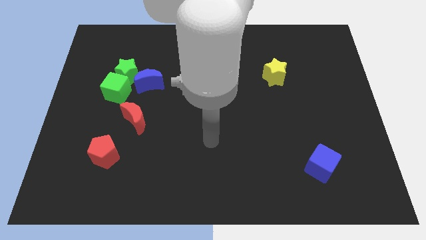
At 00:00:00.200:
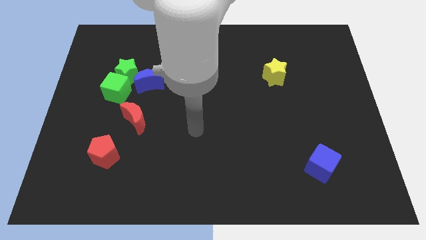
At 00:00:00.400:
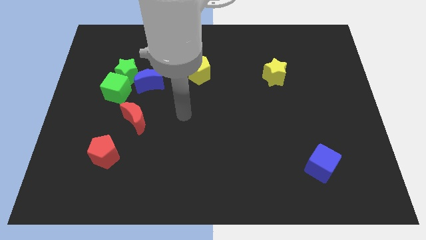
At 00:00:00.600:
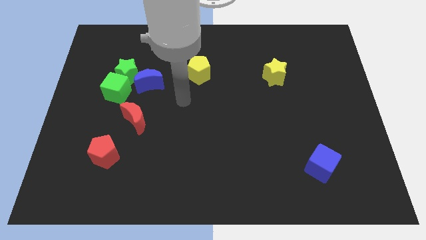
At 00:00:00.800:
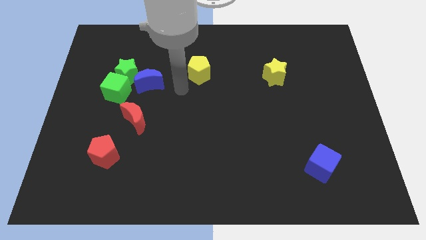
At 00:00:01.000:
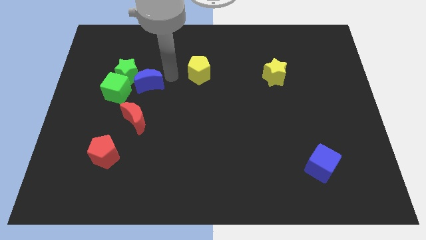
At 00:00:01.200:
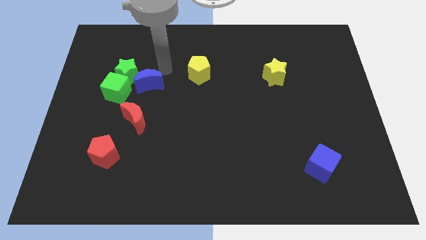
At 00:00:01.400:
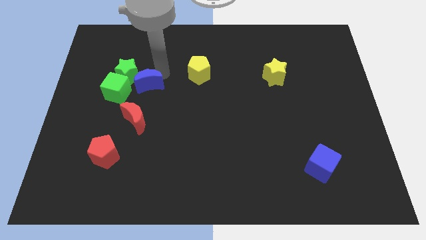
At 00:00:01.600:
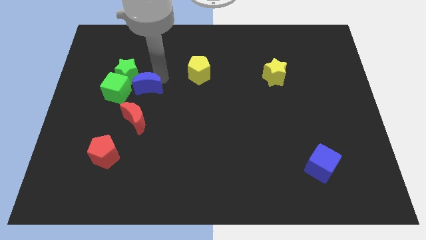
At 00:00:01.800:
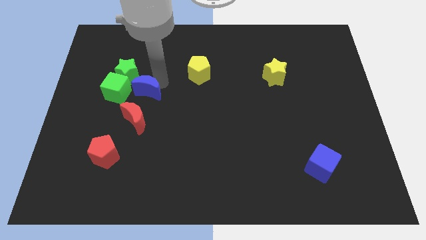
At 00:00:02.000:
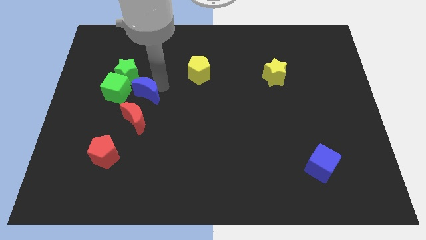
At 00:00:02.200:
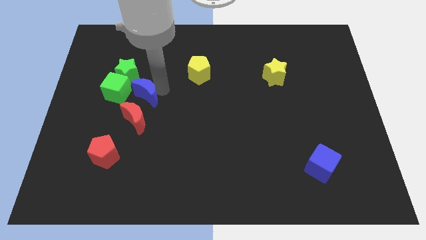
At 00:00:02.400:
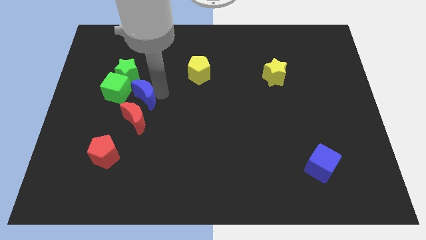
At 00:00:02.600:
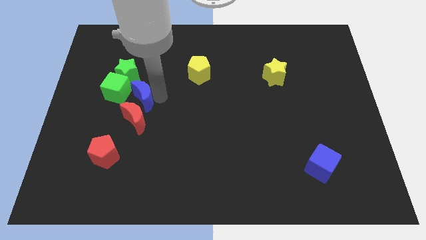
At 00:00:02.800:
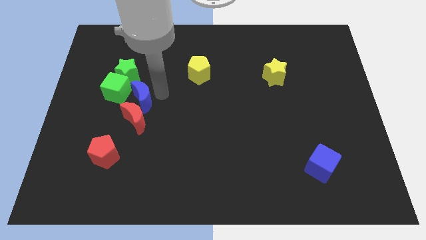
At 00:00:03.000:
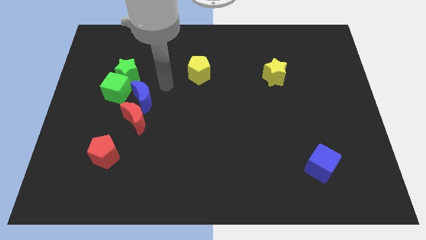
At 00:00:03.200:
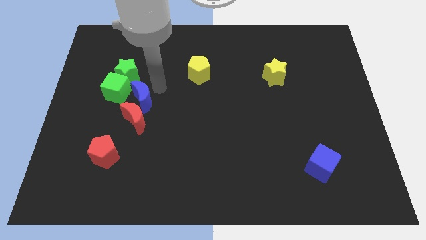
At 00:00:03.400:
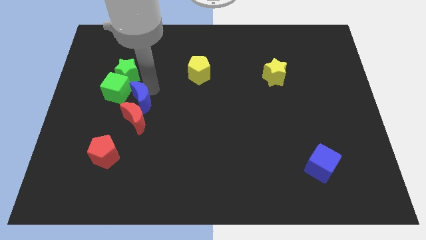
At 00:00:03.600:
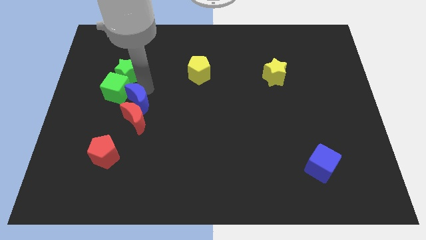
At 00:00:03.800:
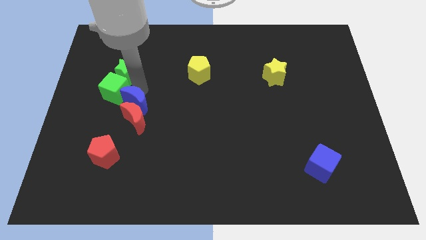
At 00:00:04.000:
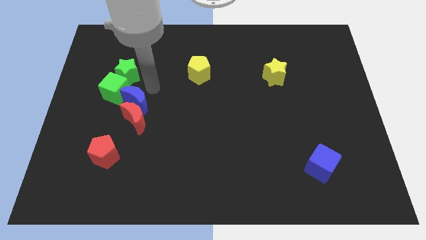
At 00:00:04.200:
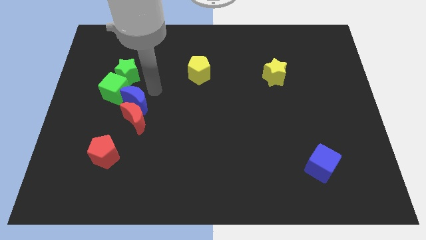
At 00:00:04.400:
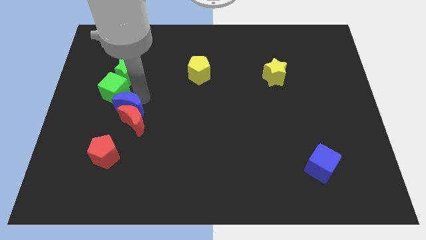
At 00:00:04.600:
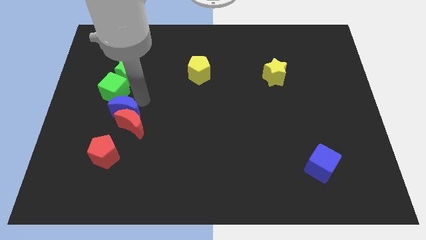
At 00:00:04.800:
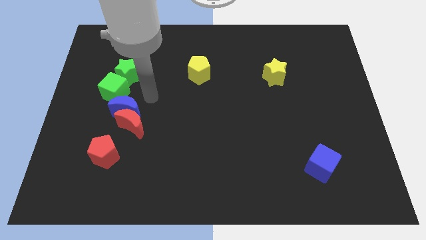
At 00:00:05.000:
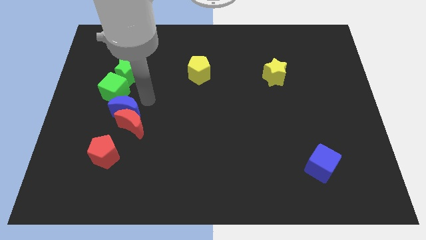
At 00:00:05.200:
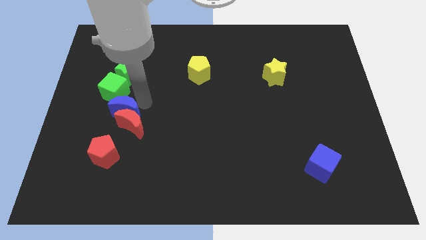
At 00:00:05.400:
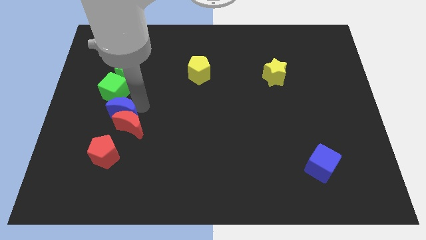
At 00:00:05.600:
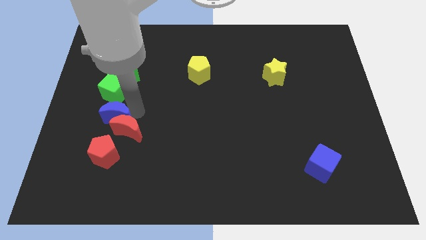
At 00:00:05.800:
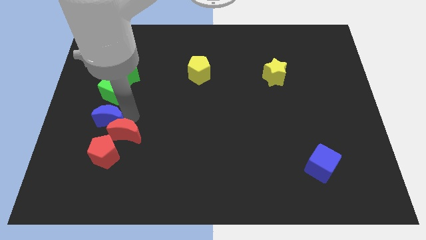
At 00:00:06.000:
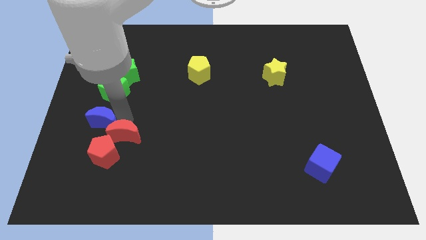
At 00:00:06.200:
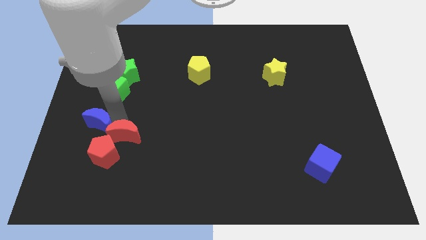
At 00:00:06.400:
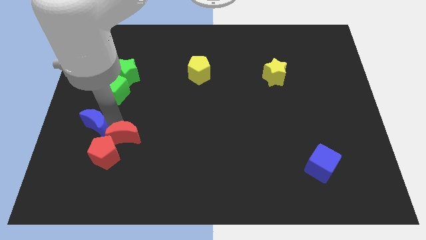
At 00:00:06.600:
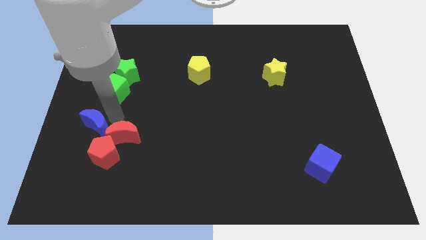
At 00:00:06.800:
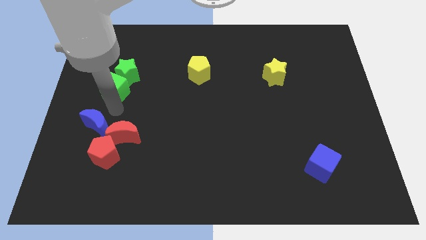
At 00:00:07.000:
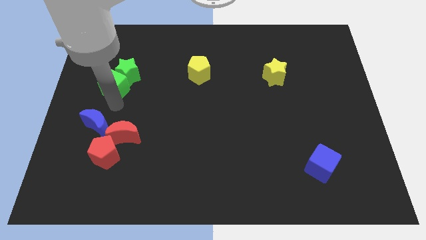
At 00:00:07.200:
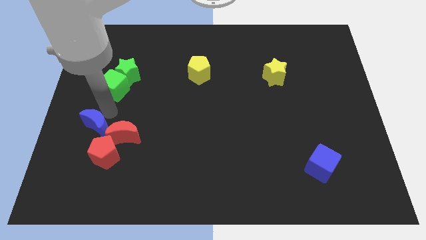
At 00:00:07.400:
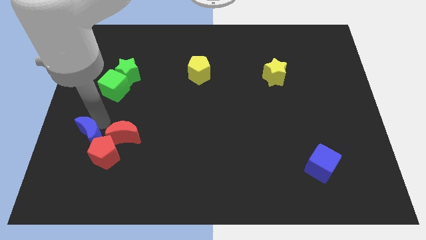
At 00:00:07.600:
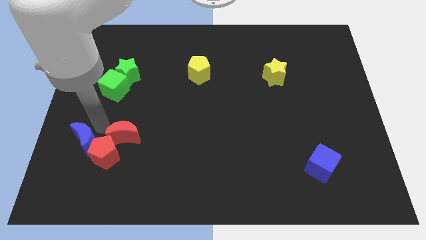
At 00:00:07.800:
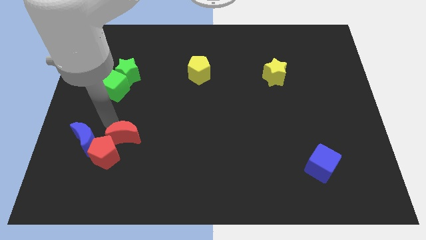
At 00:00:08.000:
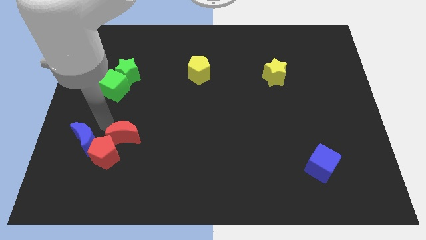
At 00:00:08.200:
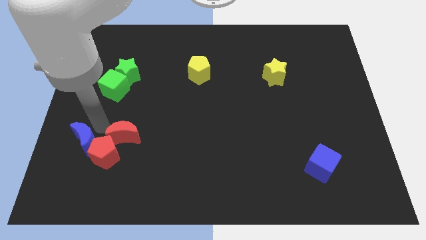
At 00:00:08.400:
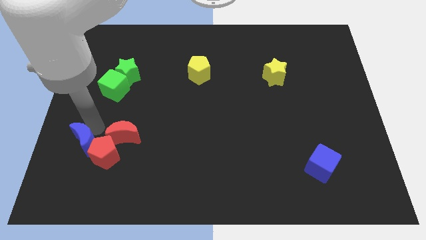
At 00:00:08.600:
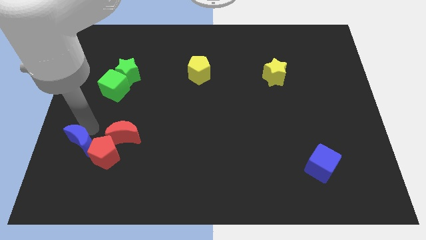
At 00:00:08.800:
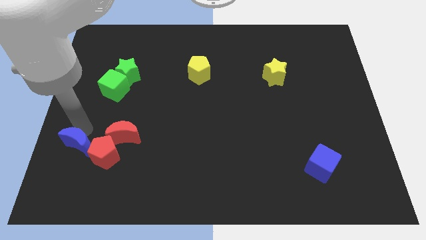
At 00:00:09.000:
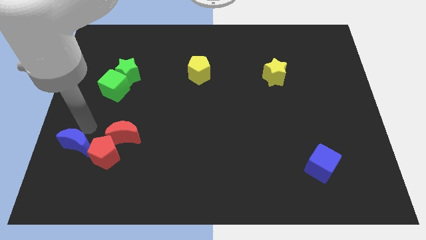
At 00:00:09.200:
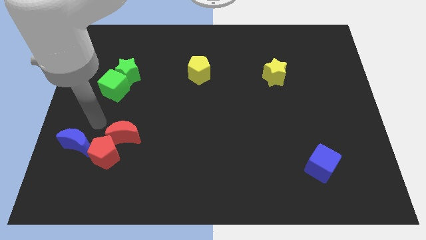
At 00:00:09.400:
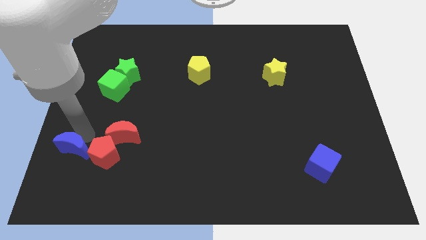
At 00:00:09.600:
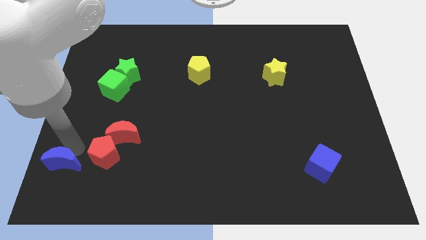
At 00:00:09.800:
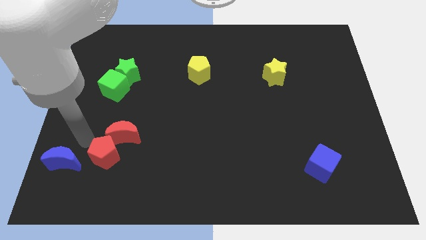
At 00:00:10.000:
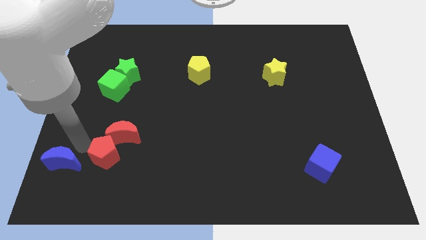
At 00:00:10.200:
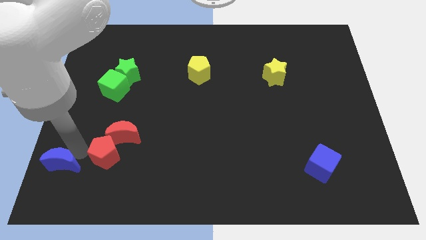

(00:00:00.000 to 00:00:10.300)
put the blue moon to the bottom left of the board

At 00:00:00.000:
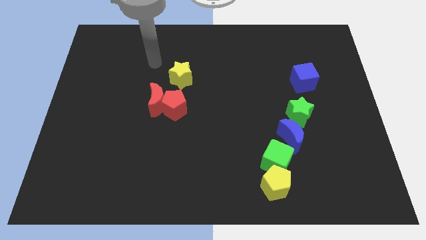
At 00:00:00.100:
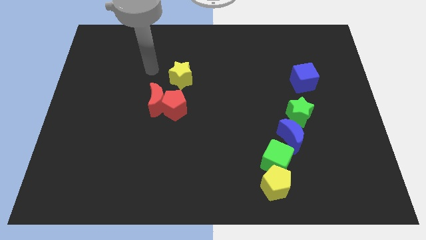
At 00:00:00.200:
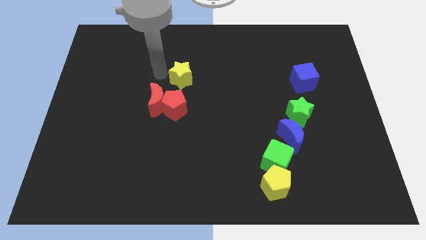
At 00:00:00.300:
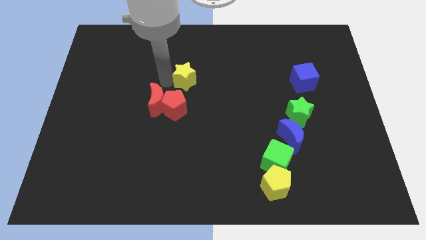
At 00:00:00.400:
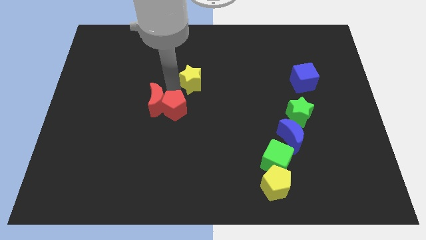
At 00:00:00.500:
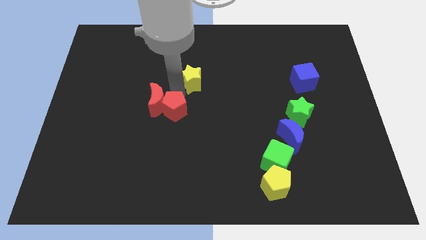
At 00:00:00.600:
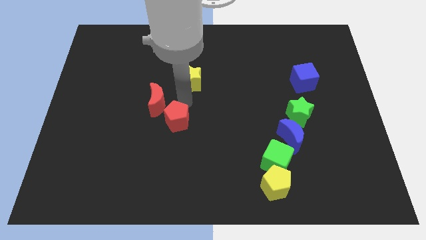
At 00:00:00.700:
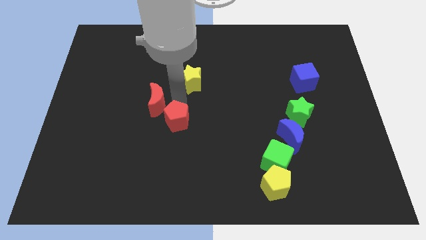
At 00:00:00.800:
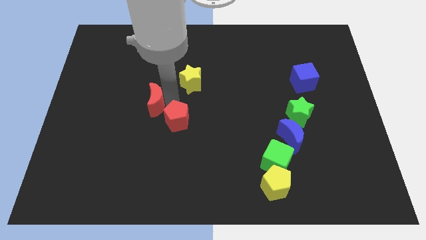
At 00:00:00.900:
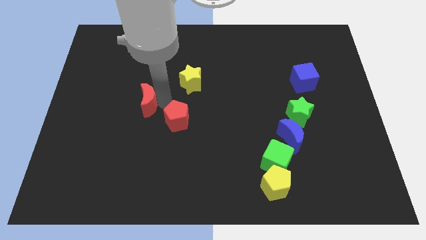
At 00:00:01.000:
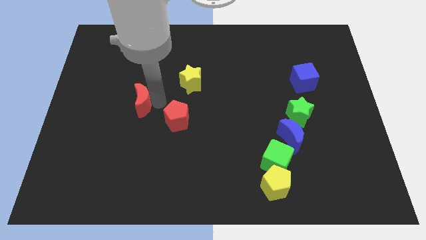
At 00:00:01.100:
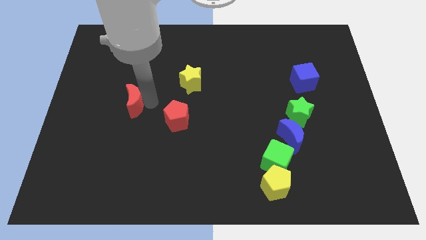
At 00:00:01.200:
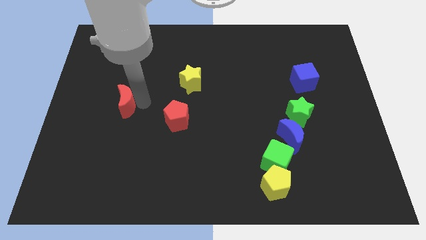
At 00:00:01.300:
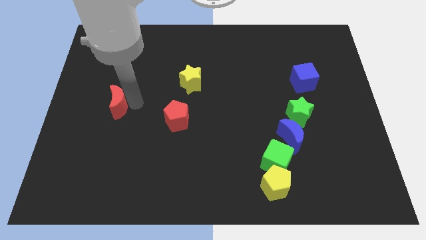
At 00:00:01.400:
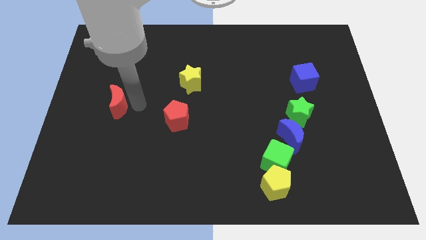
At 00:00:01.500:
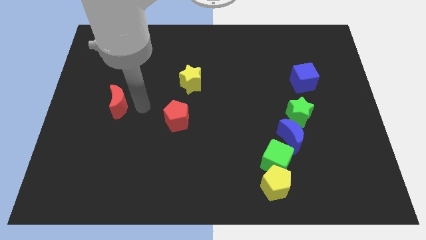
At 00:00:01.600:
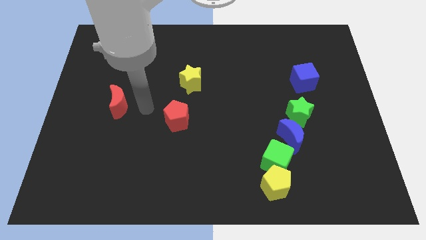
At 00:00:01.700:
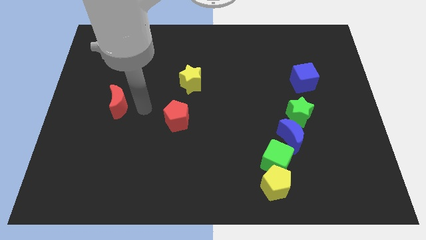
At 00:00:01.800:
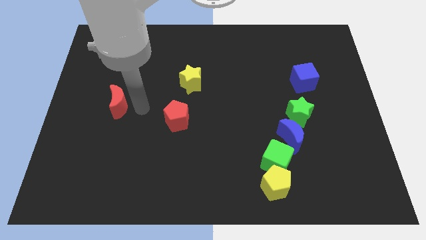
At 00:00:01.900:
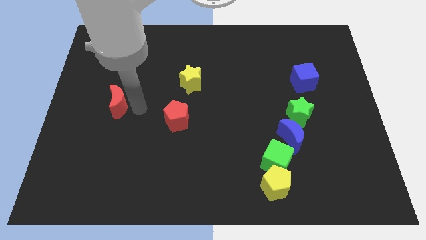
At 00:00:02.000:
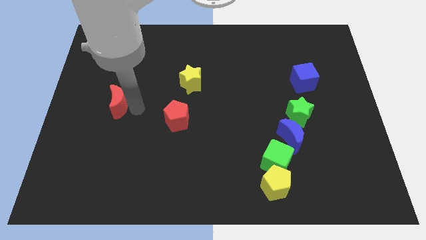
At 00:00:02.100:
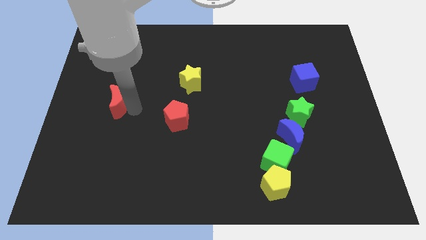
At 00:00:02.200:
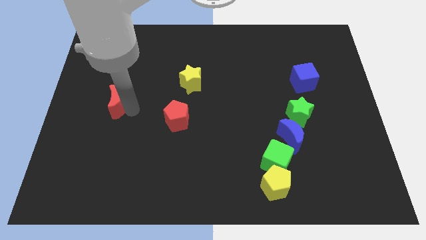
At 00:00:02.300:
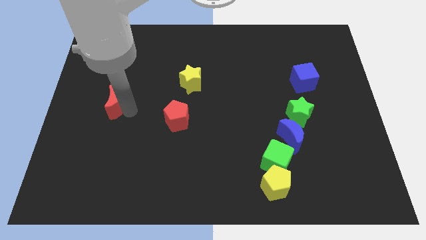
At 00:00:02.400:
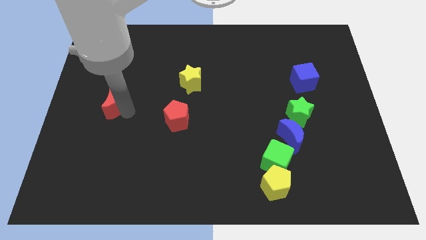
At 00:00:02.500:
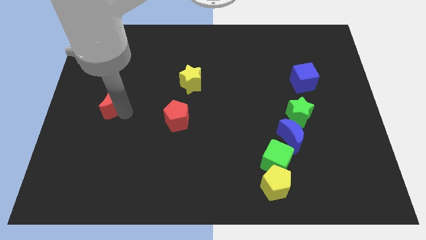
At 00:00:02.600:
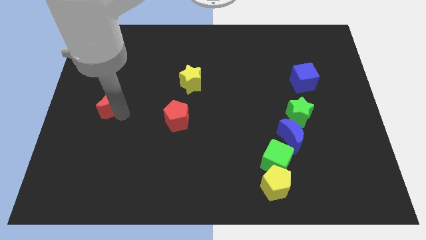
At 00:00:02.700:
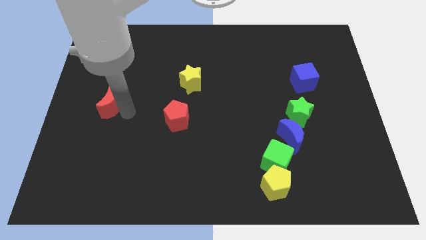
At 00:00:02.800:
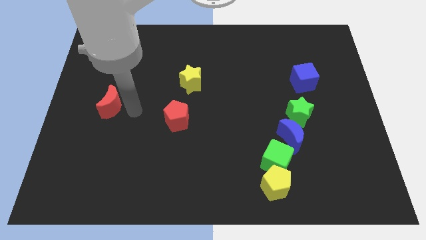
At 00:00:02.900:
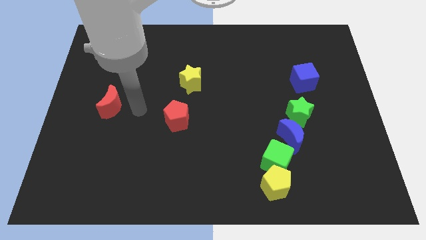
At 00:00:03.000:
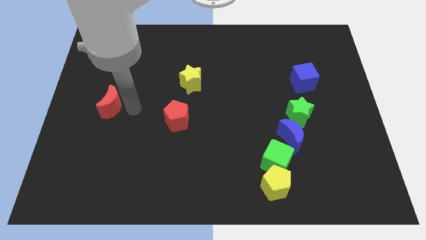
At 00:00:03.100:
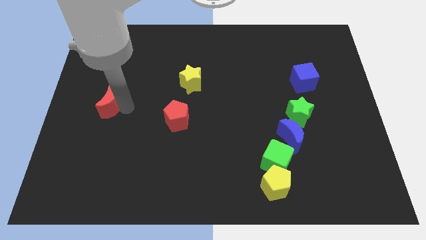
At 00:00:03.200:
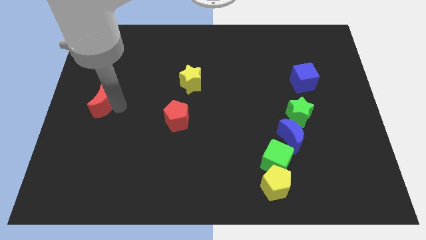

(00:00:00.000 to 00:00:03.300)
move the red moon to the left side
